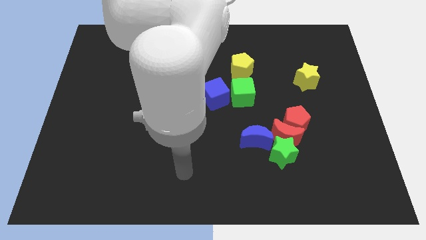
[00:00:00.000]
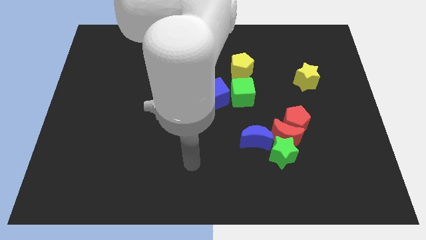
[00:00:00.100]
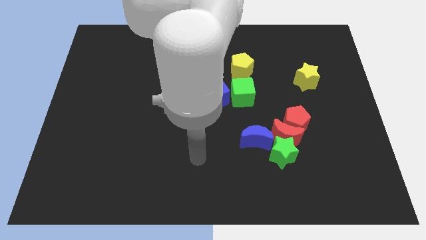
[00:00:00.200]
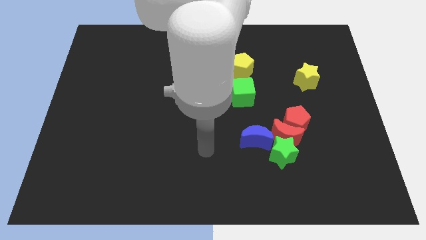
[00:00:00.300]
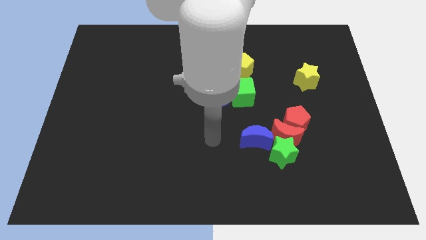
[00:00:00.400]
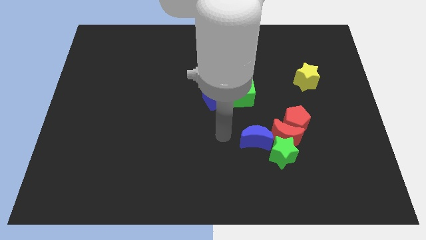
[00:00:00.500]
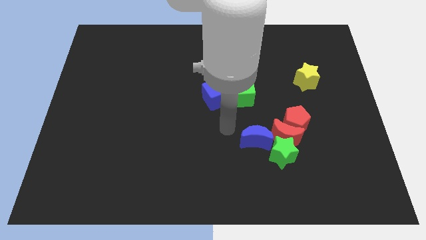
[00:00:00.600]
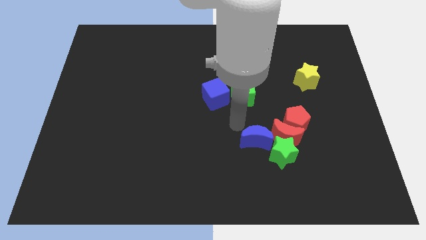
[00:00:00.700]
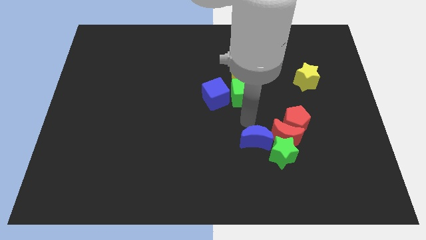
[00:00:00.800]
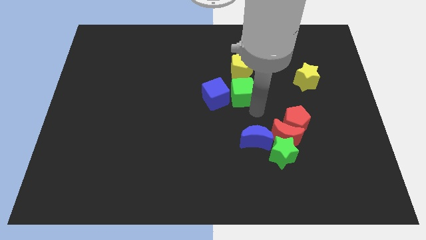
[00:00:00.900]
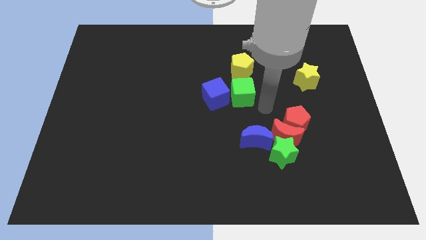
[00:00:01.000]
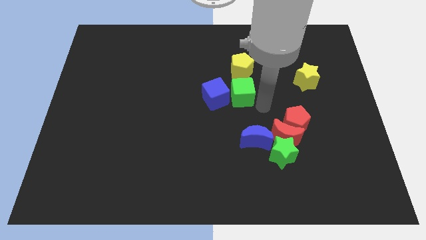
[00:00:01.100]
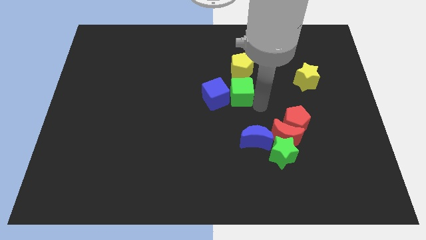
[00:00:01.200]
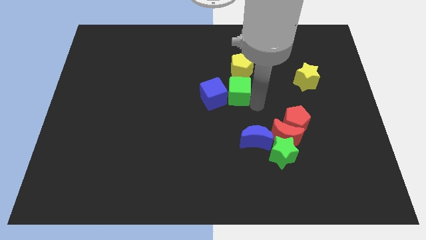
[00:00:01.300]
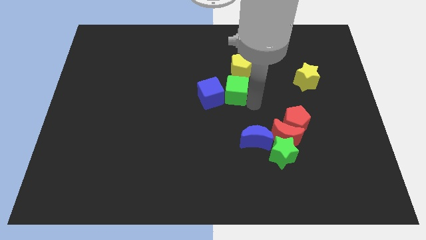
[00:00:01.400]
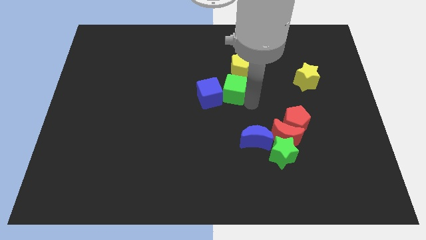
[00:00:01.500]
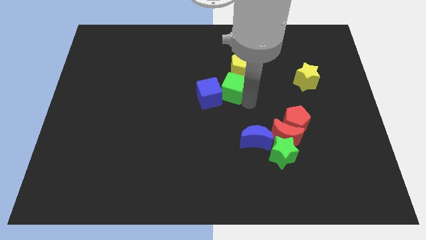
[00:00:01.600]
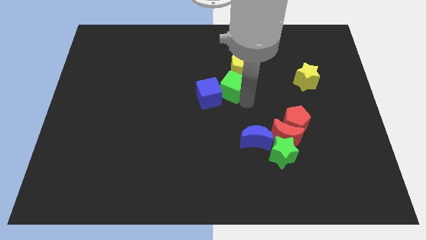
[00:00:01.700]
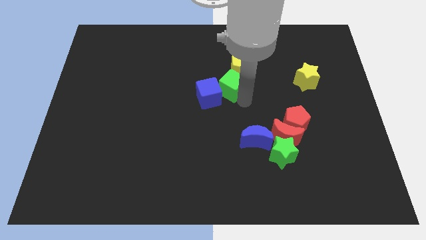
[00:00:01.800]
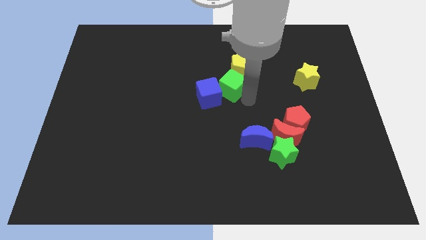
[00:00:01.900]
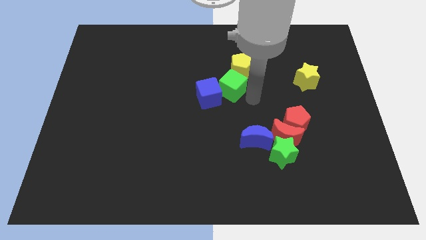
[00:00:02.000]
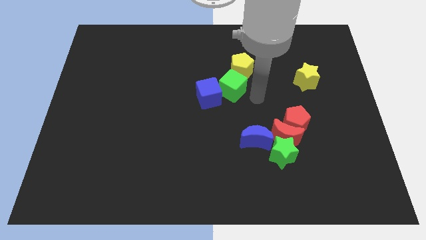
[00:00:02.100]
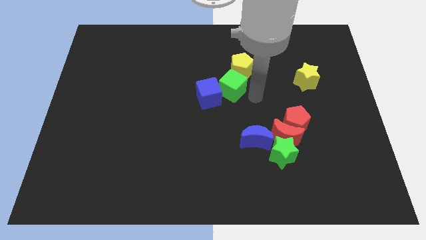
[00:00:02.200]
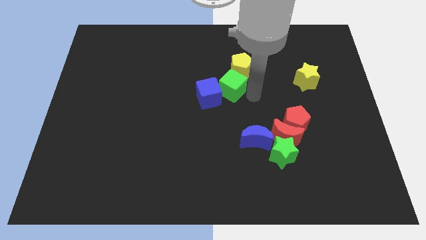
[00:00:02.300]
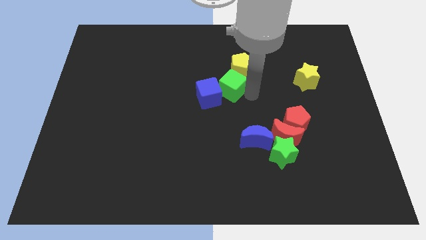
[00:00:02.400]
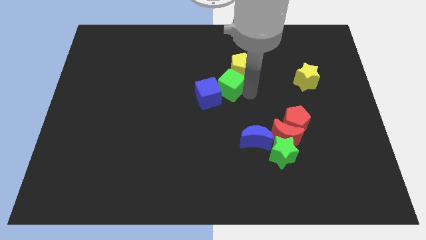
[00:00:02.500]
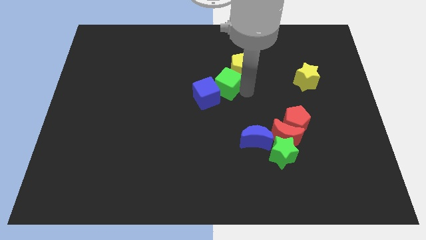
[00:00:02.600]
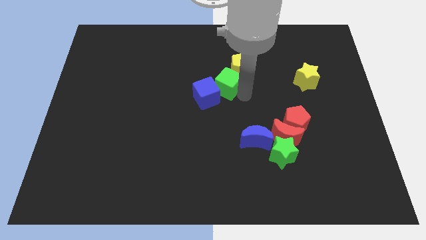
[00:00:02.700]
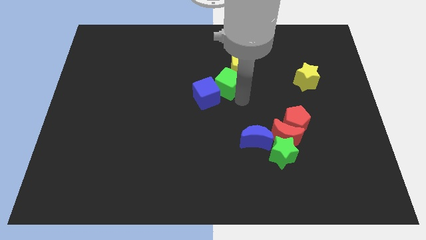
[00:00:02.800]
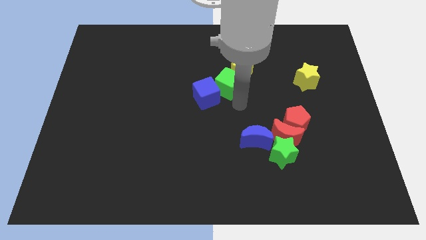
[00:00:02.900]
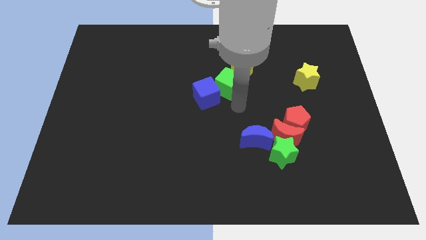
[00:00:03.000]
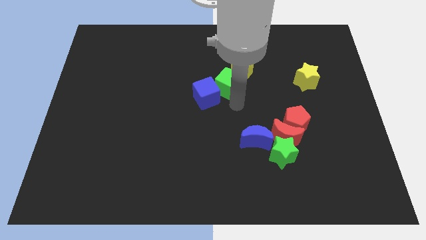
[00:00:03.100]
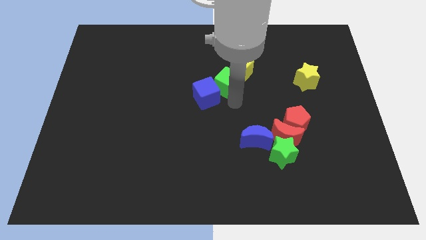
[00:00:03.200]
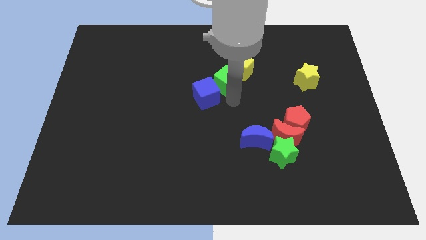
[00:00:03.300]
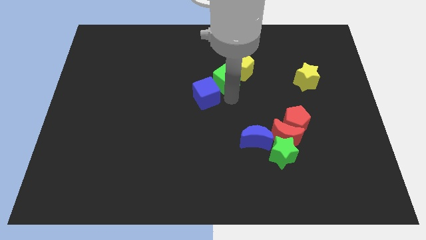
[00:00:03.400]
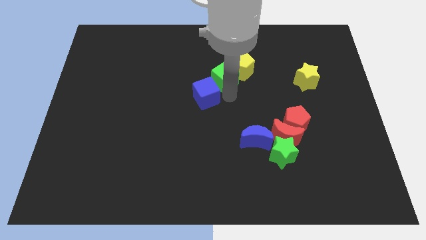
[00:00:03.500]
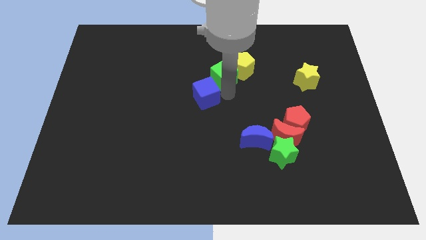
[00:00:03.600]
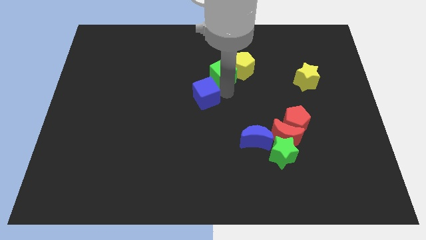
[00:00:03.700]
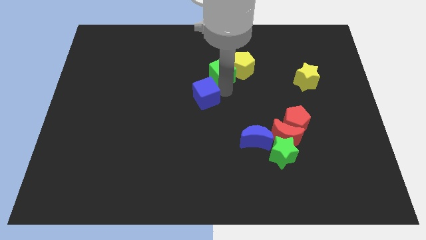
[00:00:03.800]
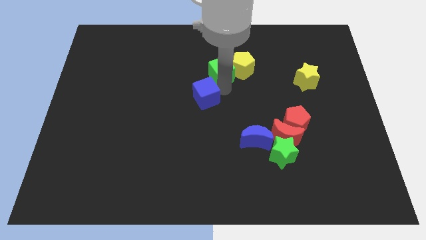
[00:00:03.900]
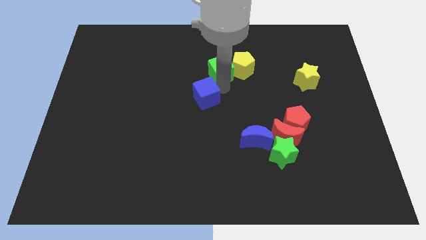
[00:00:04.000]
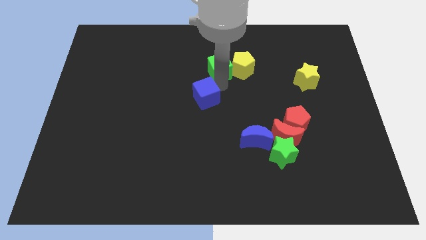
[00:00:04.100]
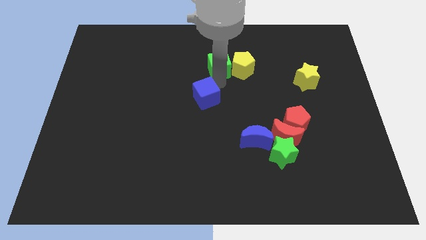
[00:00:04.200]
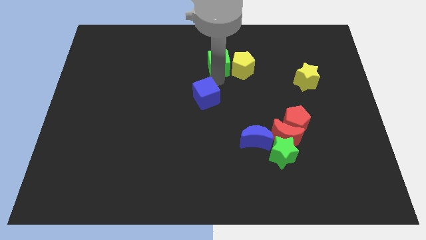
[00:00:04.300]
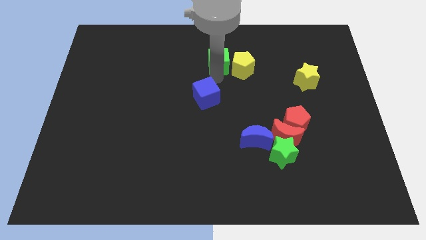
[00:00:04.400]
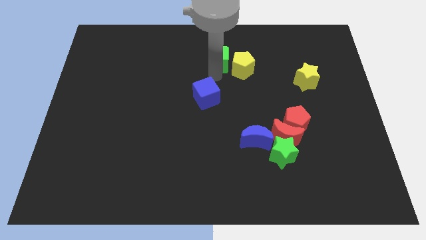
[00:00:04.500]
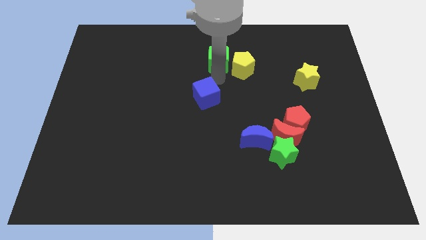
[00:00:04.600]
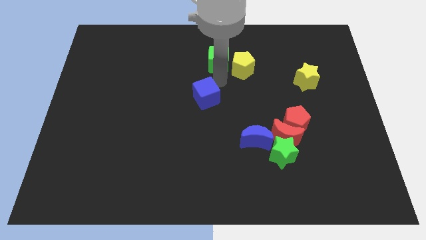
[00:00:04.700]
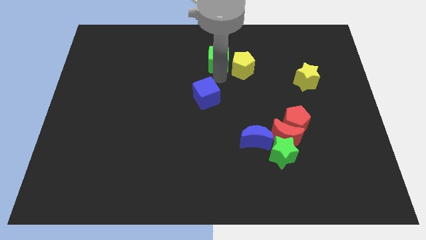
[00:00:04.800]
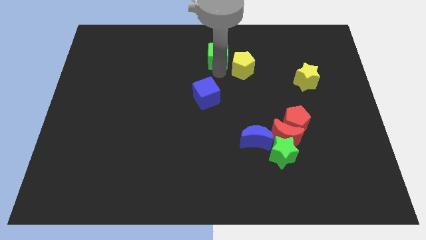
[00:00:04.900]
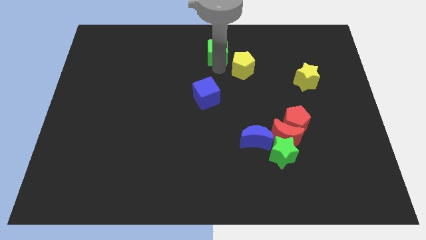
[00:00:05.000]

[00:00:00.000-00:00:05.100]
put the green cube to the top side

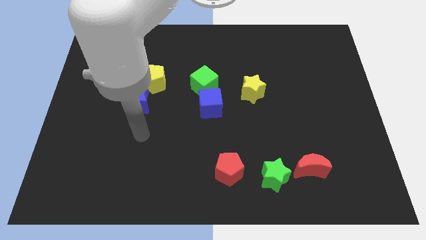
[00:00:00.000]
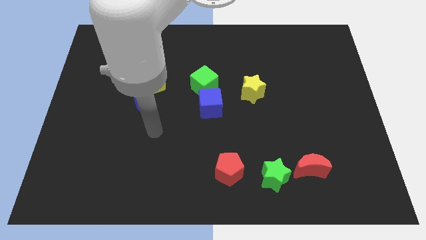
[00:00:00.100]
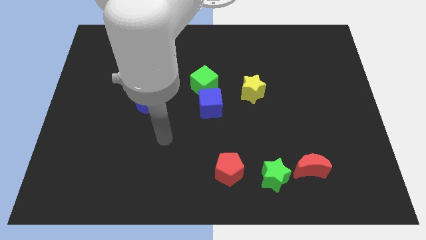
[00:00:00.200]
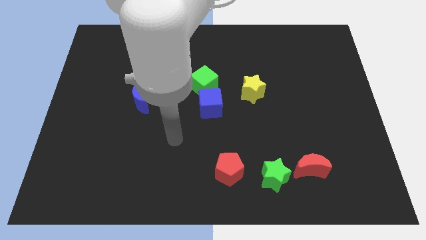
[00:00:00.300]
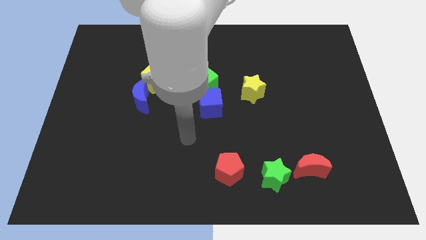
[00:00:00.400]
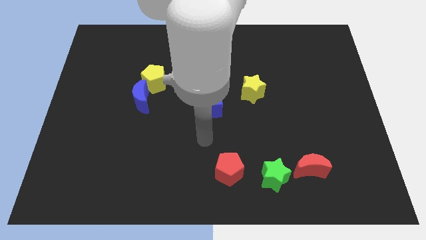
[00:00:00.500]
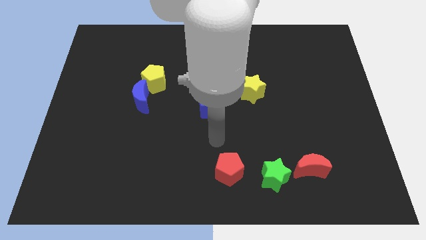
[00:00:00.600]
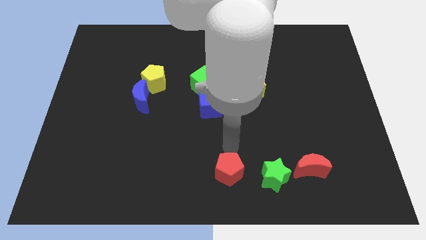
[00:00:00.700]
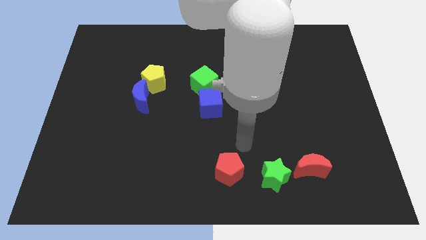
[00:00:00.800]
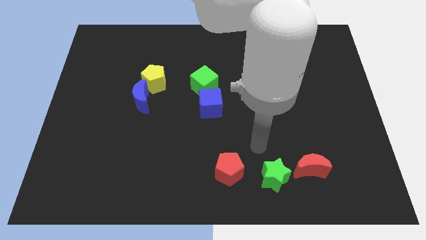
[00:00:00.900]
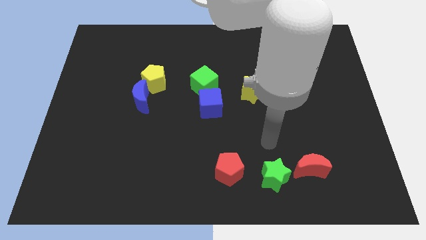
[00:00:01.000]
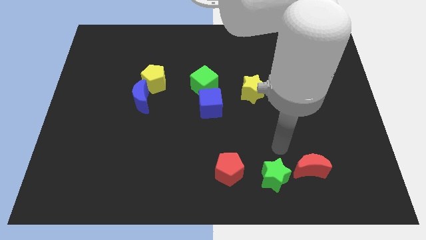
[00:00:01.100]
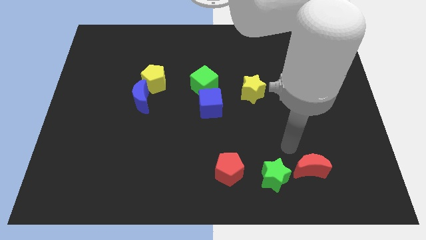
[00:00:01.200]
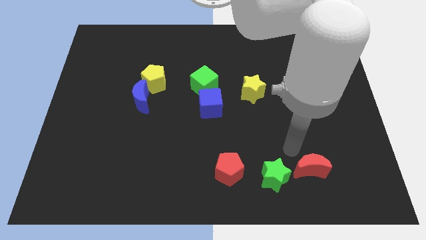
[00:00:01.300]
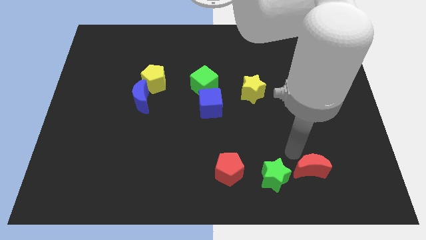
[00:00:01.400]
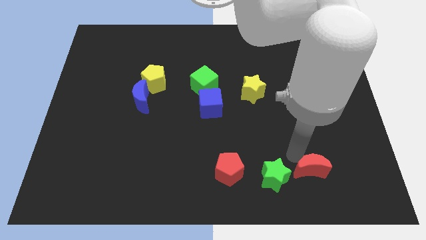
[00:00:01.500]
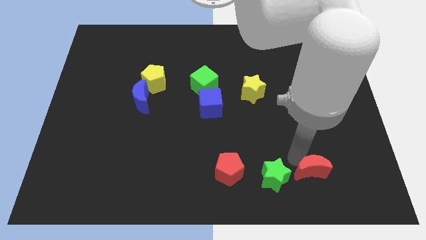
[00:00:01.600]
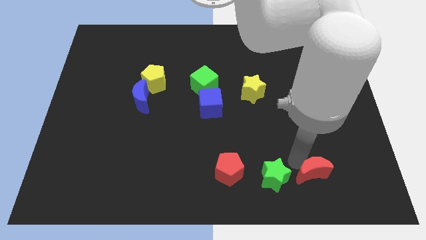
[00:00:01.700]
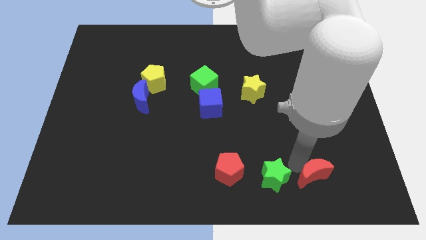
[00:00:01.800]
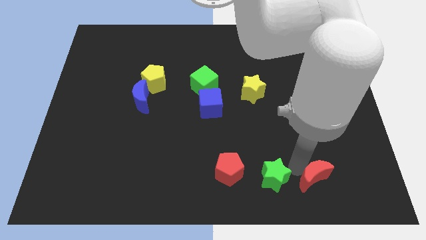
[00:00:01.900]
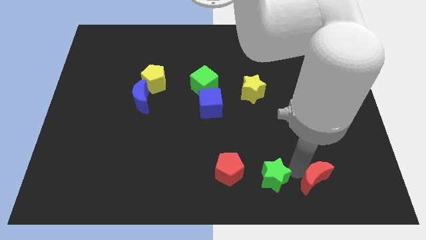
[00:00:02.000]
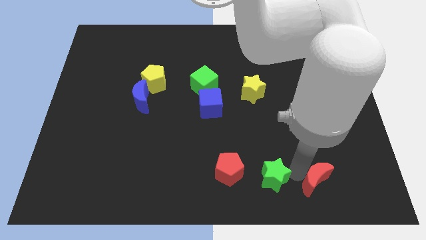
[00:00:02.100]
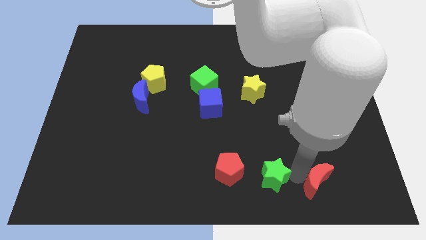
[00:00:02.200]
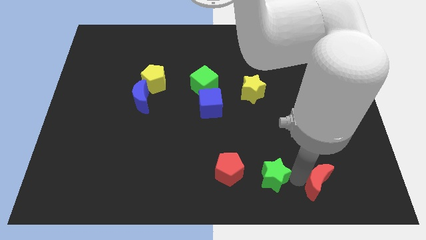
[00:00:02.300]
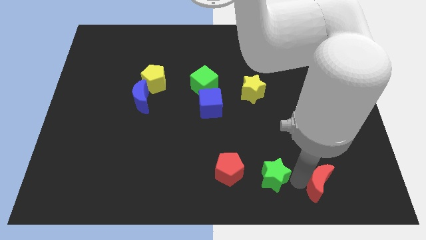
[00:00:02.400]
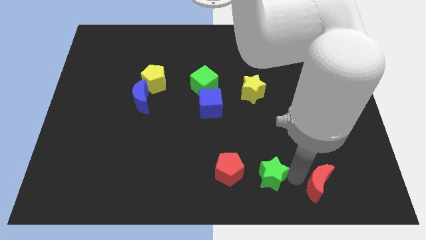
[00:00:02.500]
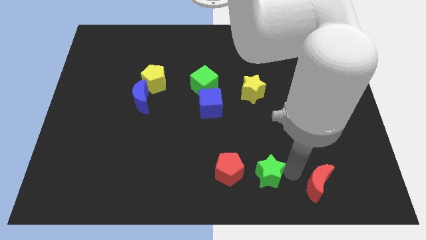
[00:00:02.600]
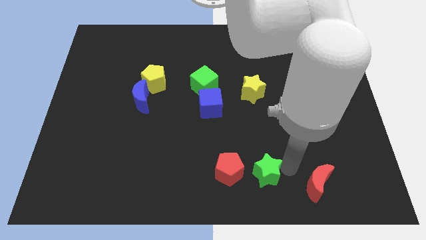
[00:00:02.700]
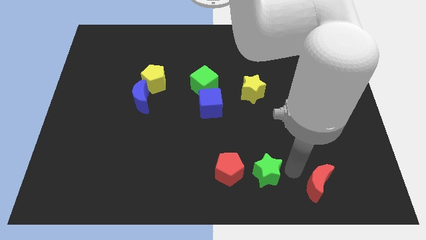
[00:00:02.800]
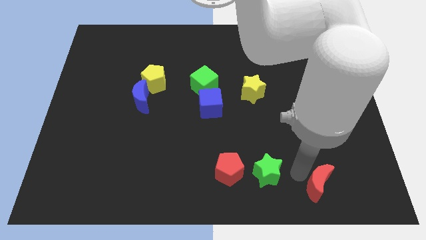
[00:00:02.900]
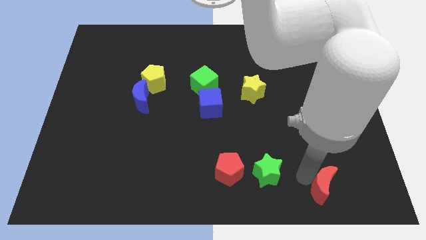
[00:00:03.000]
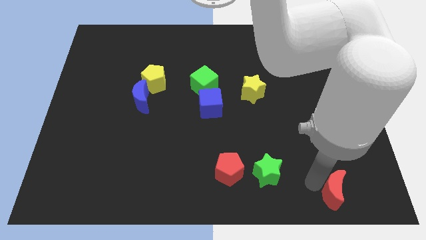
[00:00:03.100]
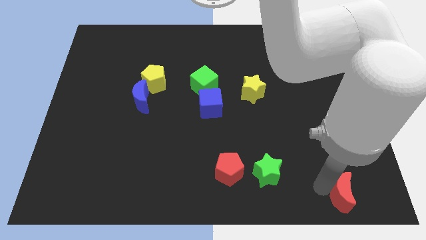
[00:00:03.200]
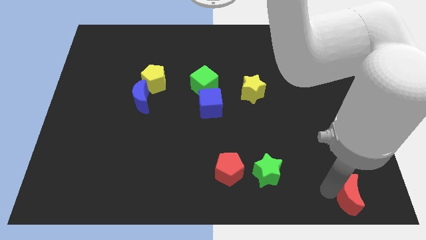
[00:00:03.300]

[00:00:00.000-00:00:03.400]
slide the red moon to the bottom right
